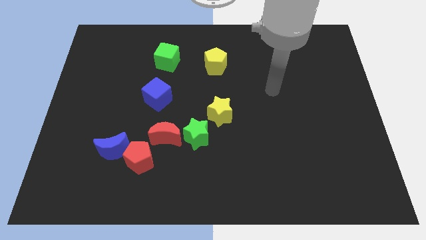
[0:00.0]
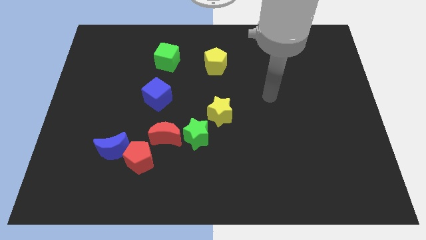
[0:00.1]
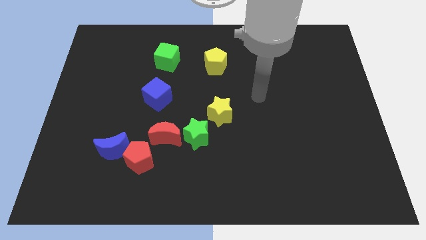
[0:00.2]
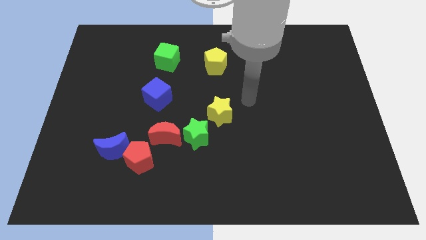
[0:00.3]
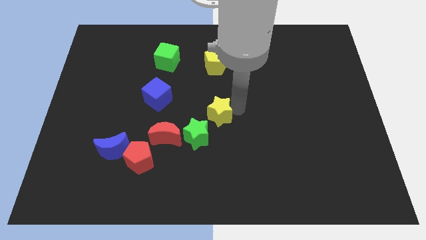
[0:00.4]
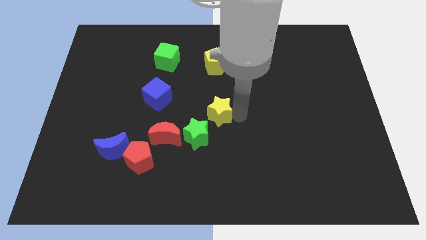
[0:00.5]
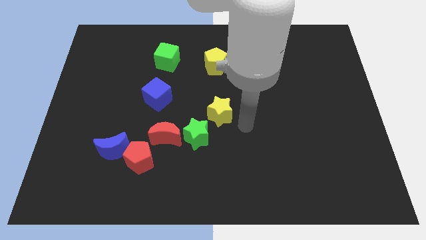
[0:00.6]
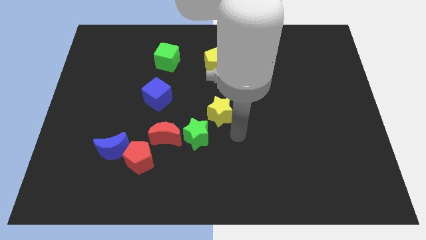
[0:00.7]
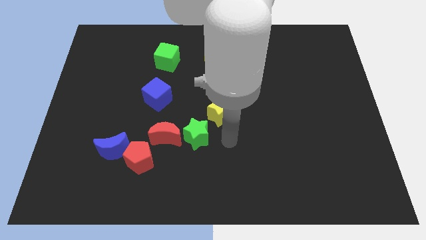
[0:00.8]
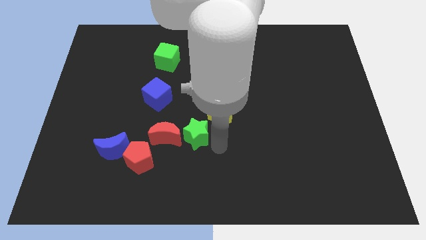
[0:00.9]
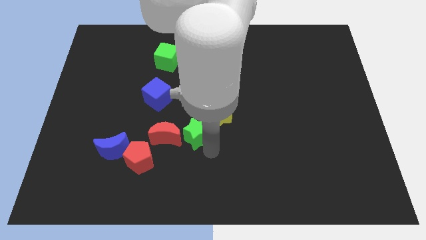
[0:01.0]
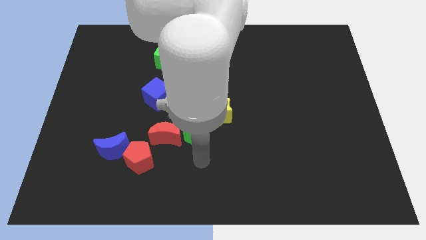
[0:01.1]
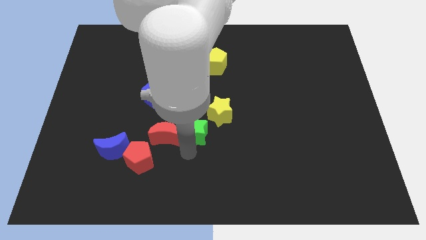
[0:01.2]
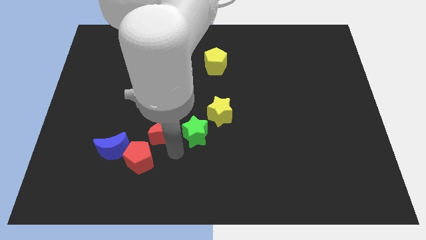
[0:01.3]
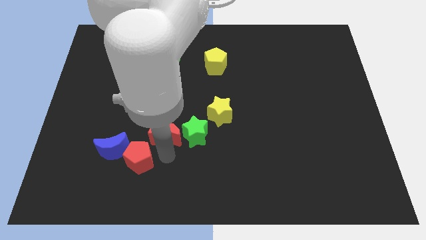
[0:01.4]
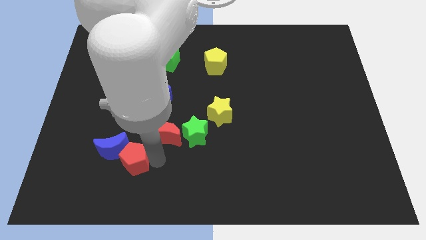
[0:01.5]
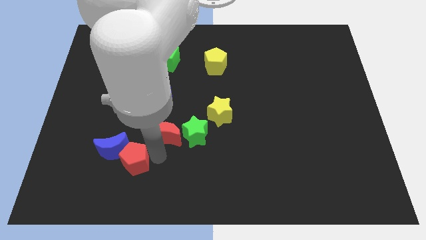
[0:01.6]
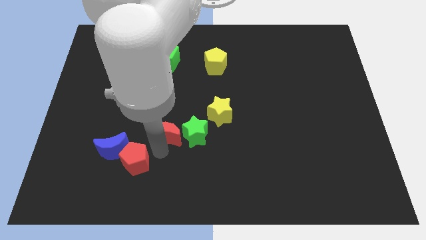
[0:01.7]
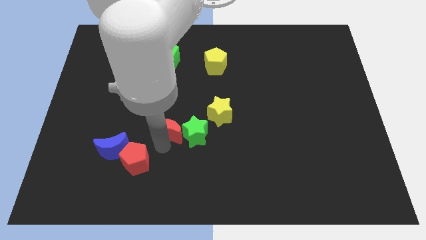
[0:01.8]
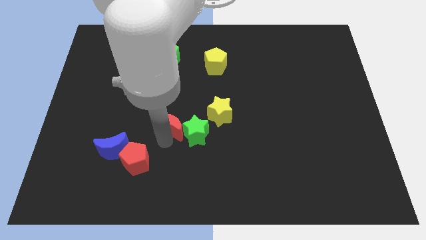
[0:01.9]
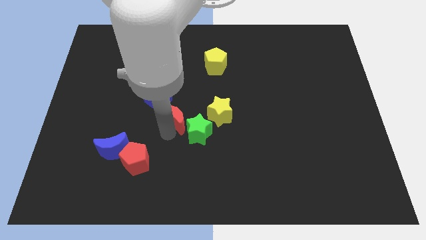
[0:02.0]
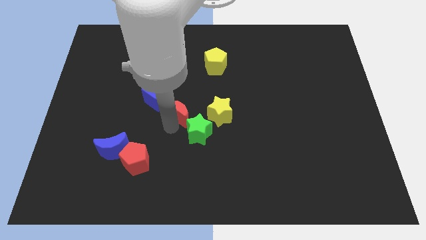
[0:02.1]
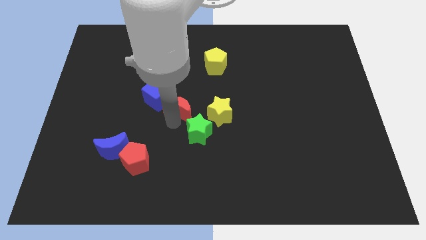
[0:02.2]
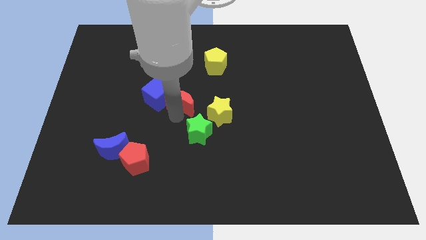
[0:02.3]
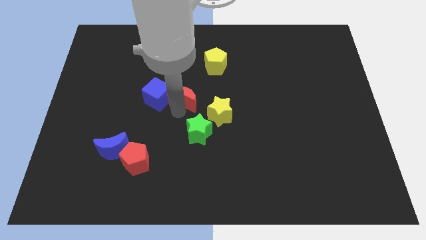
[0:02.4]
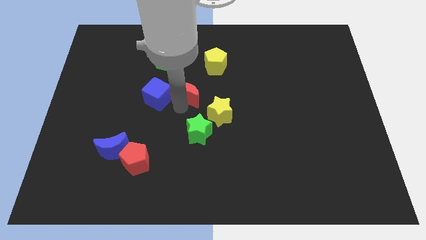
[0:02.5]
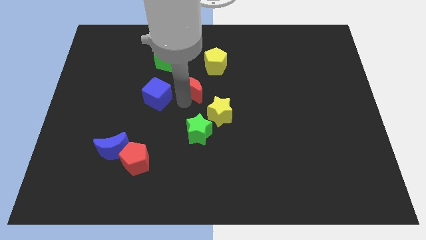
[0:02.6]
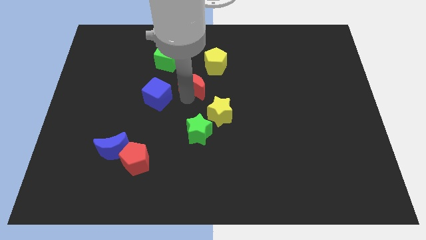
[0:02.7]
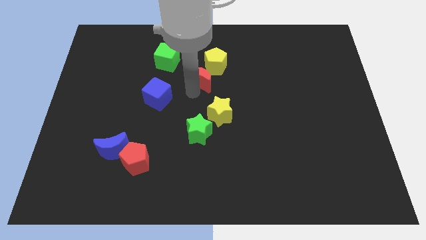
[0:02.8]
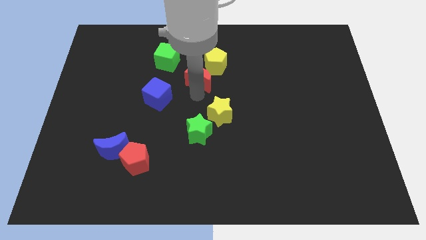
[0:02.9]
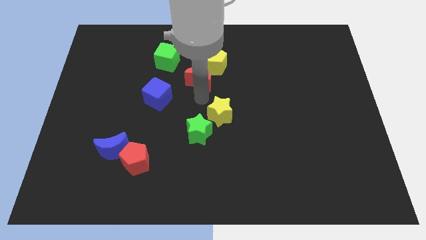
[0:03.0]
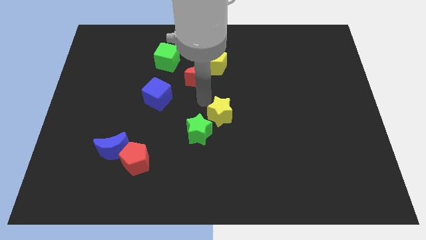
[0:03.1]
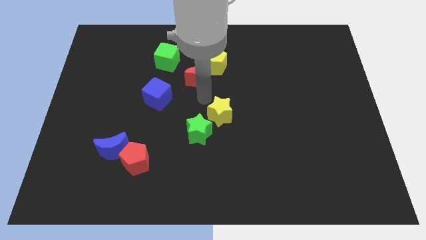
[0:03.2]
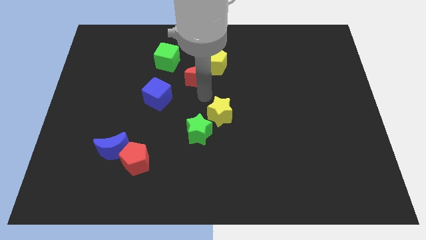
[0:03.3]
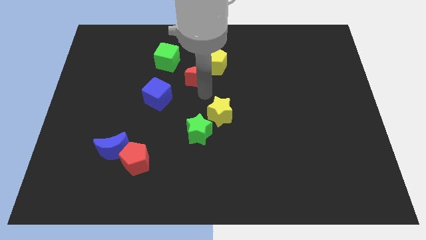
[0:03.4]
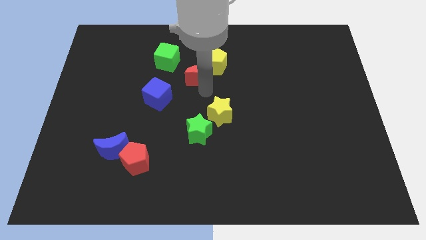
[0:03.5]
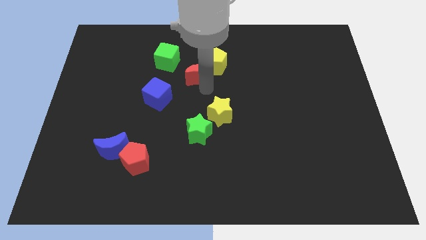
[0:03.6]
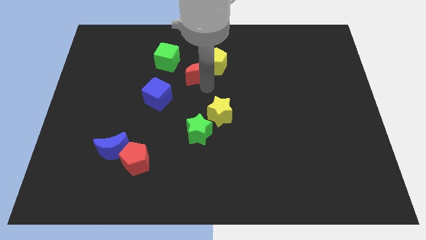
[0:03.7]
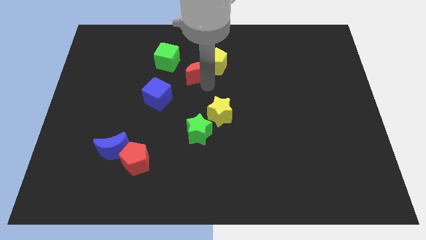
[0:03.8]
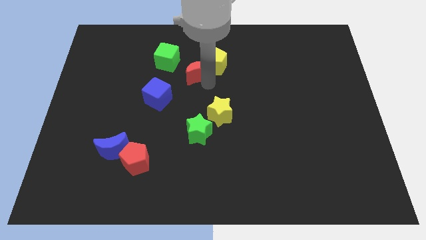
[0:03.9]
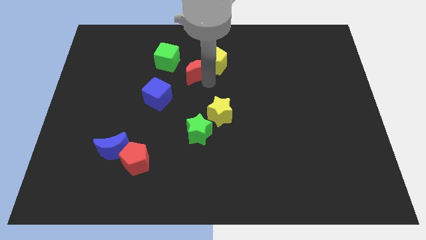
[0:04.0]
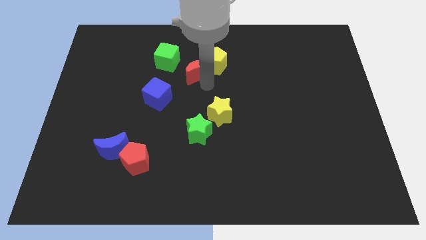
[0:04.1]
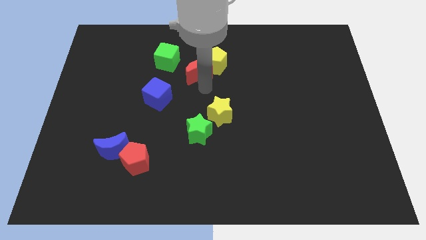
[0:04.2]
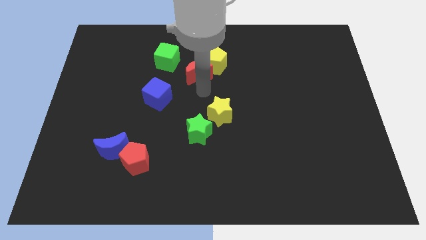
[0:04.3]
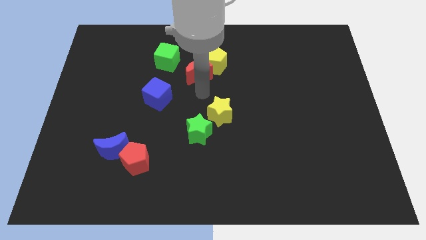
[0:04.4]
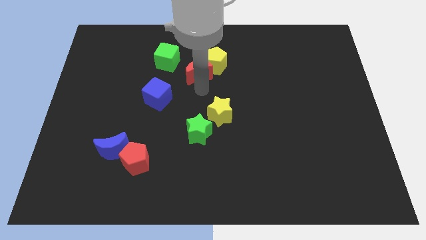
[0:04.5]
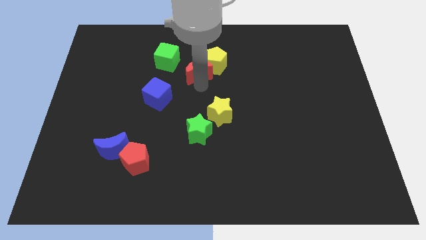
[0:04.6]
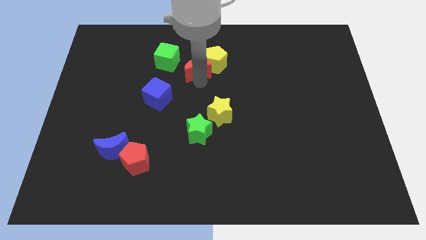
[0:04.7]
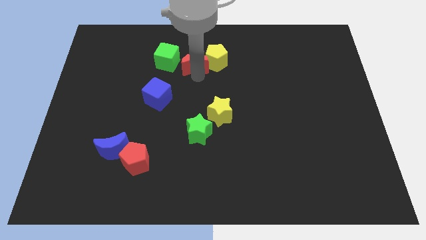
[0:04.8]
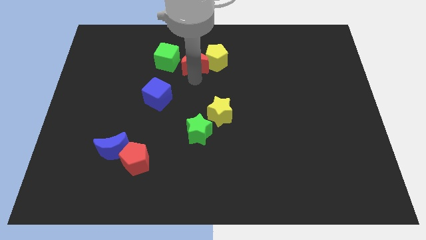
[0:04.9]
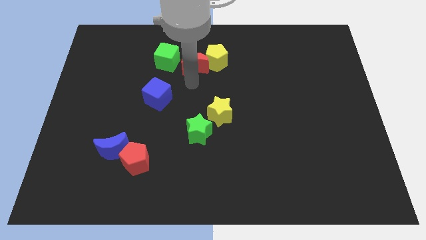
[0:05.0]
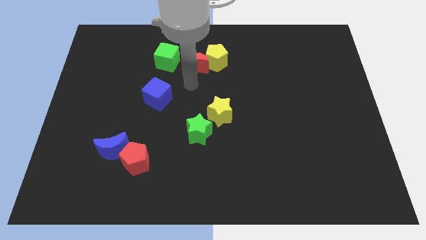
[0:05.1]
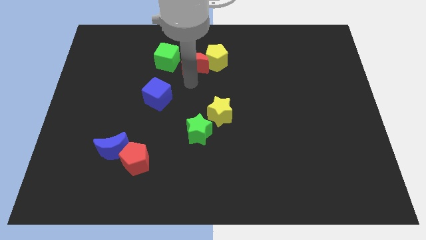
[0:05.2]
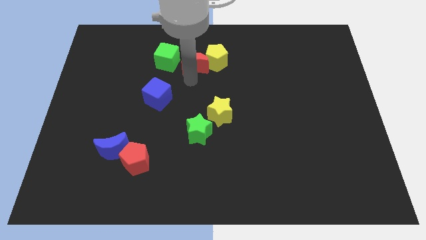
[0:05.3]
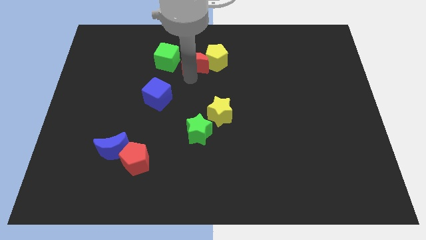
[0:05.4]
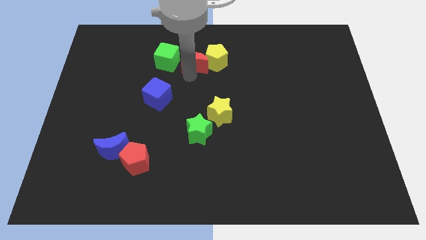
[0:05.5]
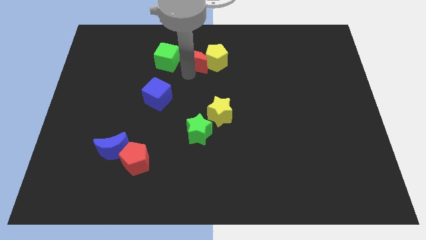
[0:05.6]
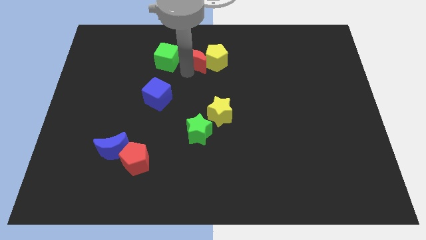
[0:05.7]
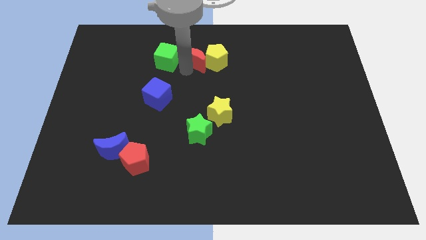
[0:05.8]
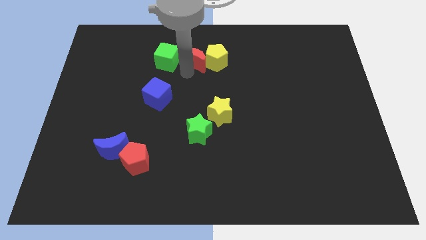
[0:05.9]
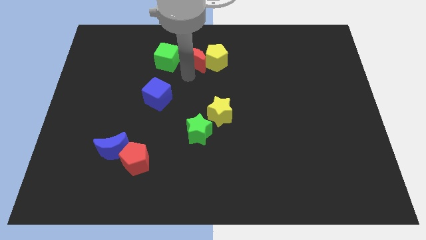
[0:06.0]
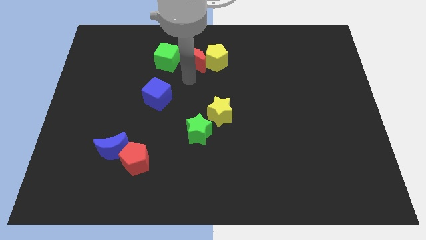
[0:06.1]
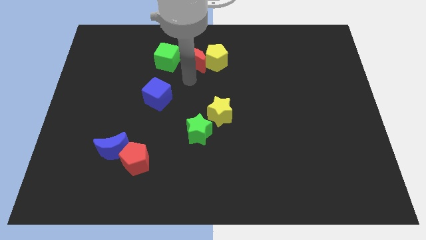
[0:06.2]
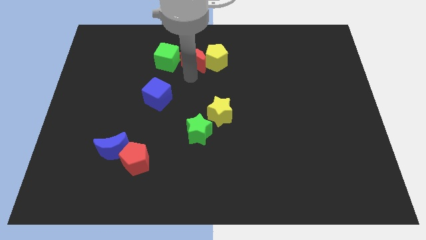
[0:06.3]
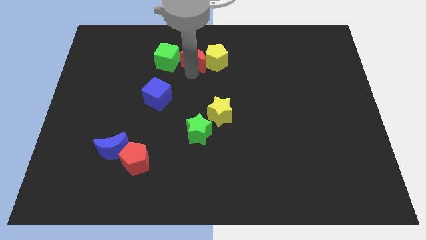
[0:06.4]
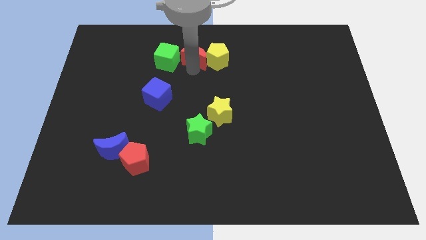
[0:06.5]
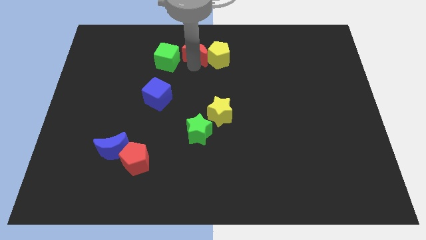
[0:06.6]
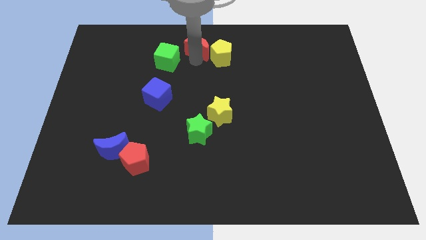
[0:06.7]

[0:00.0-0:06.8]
push the red moon to the top side

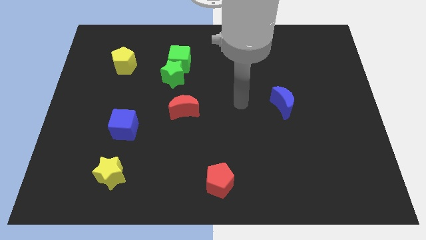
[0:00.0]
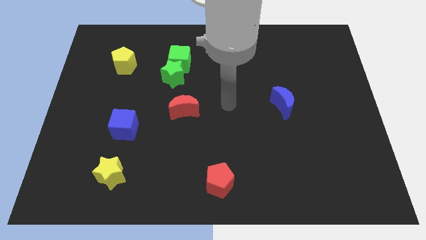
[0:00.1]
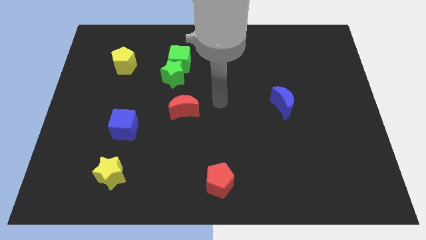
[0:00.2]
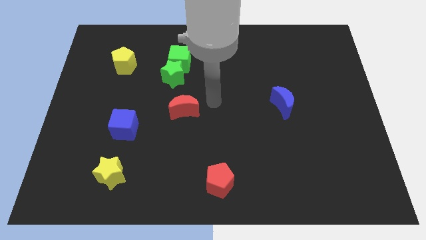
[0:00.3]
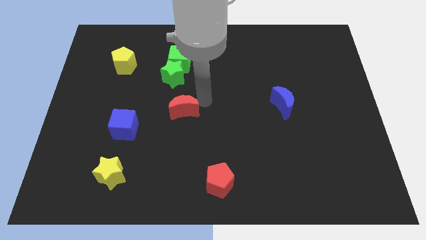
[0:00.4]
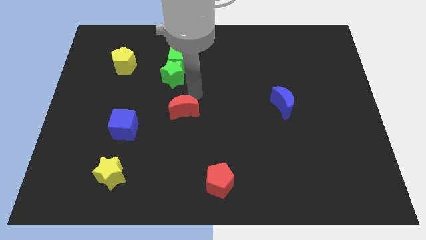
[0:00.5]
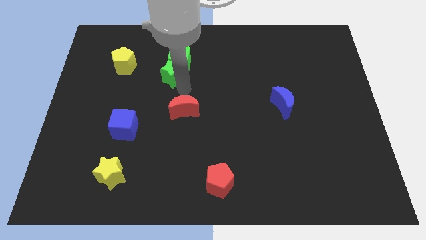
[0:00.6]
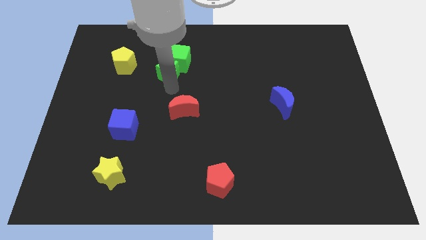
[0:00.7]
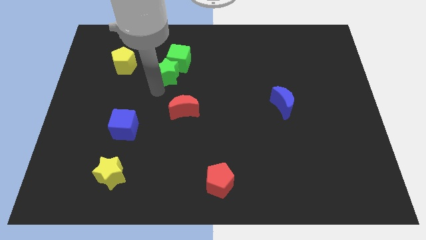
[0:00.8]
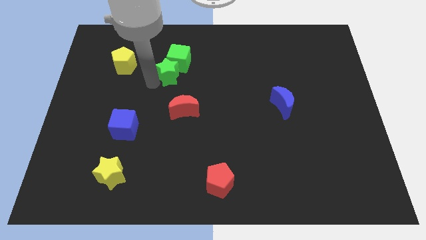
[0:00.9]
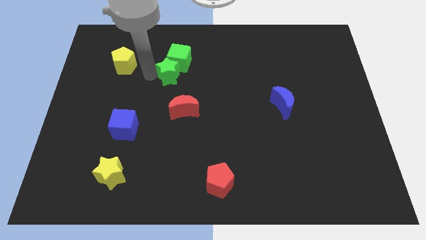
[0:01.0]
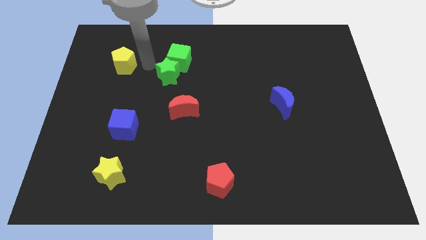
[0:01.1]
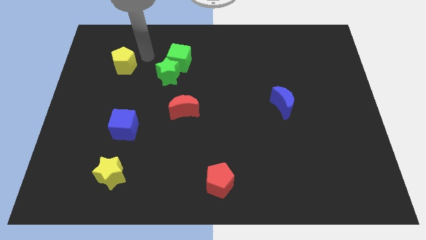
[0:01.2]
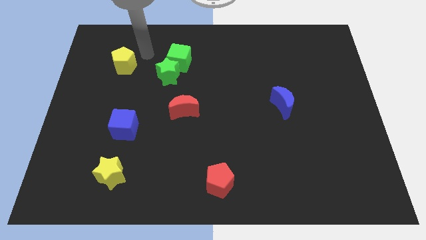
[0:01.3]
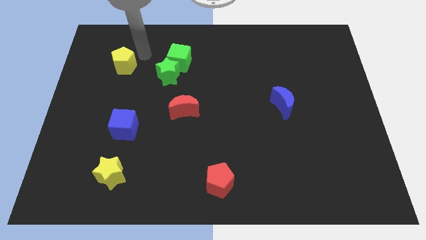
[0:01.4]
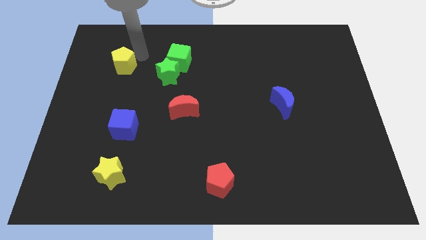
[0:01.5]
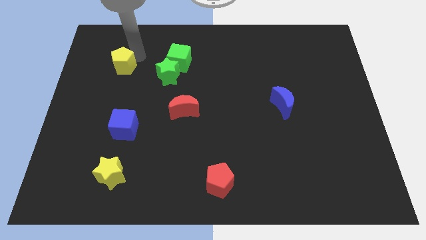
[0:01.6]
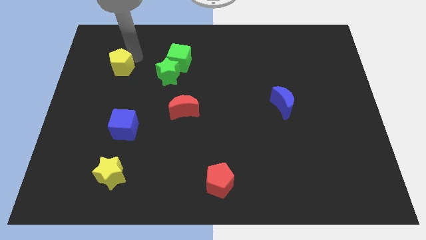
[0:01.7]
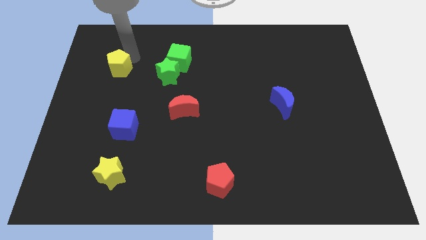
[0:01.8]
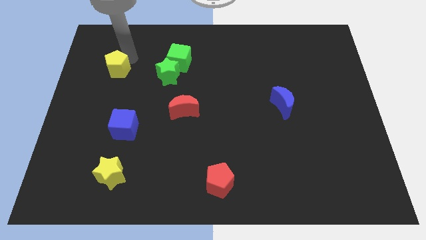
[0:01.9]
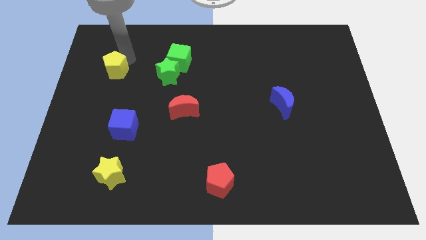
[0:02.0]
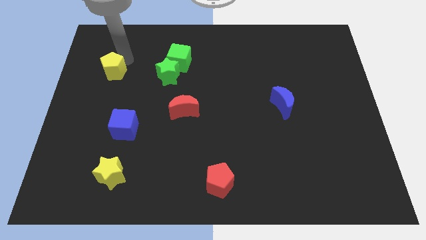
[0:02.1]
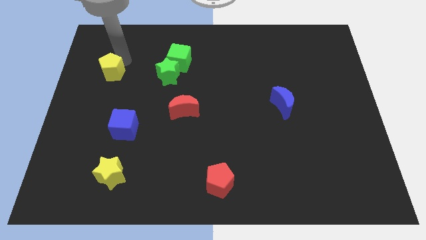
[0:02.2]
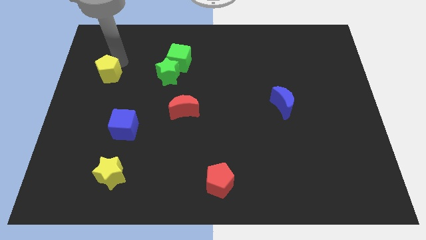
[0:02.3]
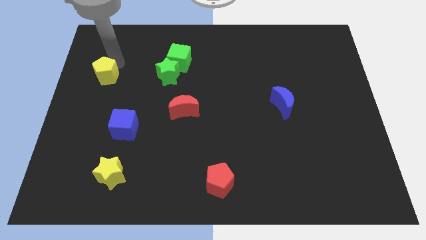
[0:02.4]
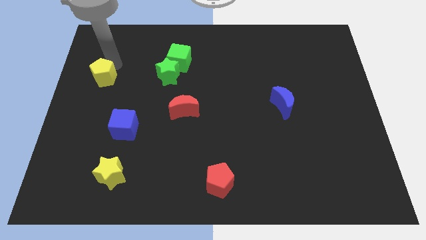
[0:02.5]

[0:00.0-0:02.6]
slide the yellow pentagon to the left side of the board
